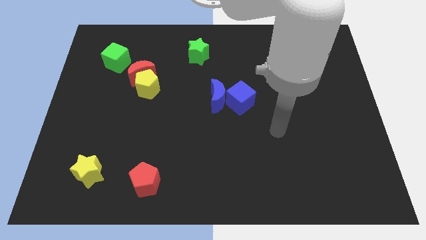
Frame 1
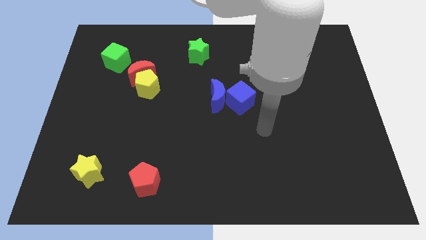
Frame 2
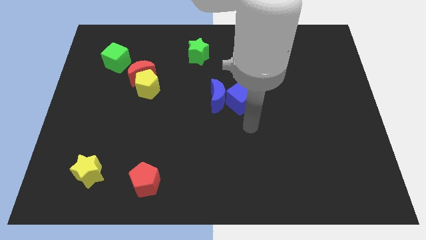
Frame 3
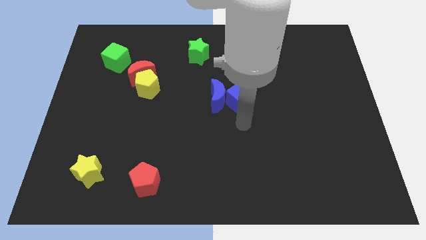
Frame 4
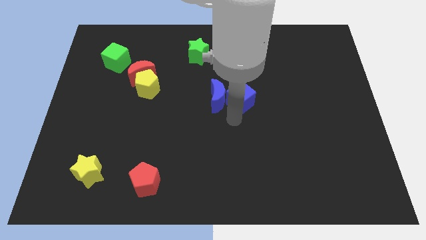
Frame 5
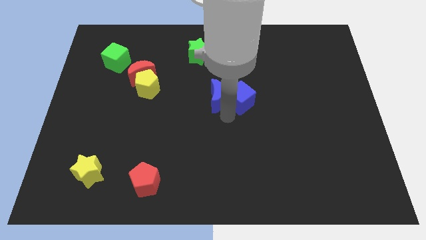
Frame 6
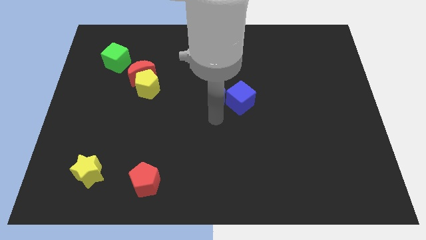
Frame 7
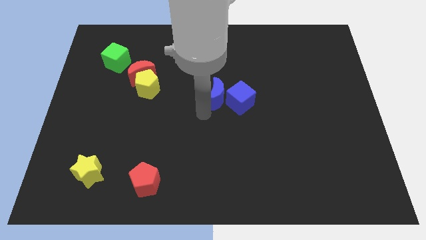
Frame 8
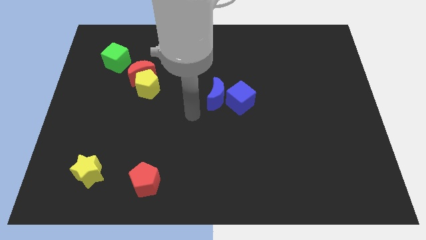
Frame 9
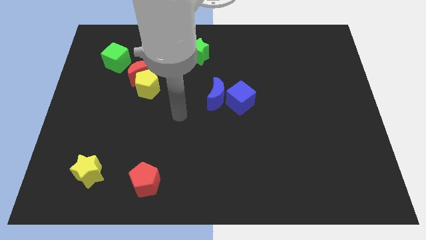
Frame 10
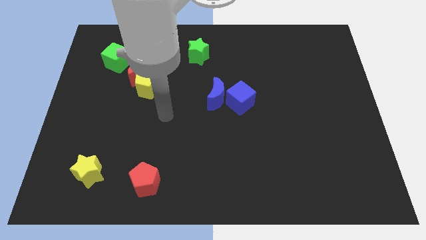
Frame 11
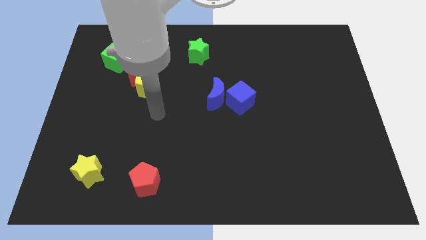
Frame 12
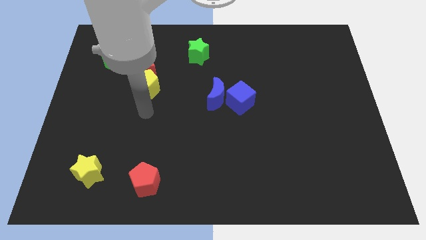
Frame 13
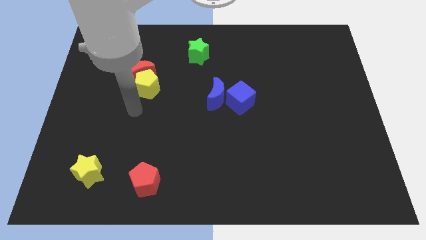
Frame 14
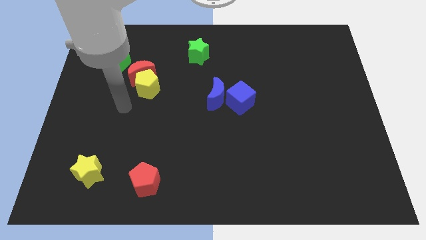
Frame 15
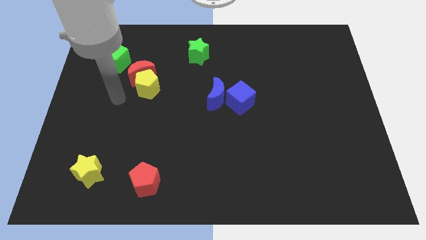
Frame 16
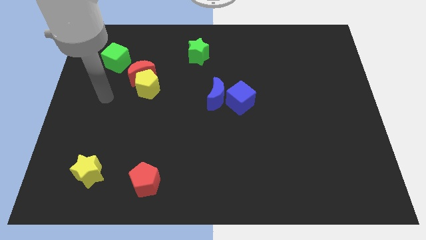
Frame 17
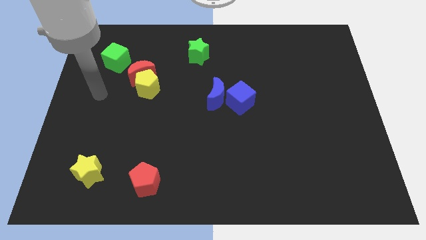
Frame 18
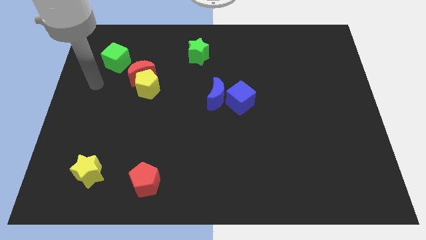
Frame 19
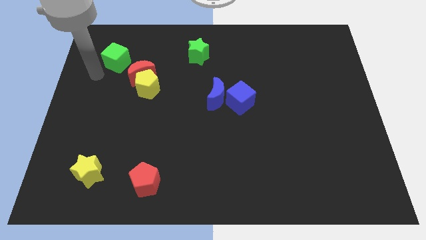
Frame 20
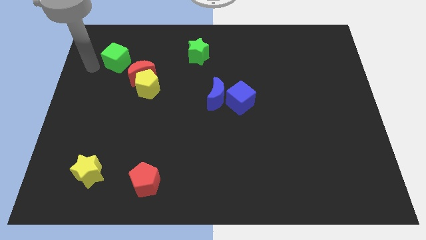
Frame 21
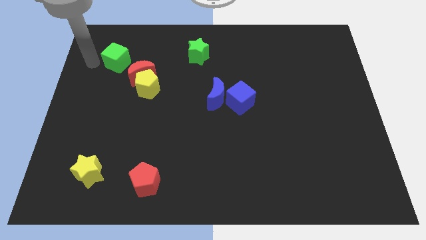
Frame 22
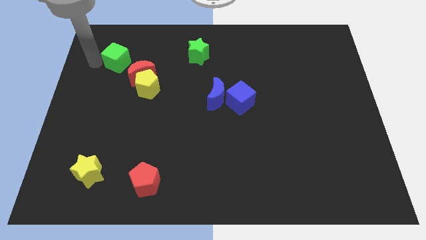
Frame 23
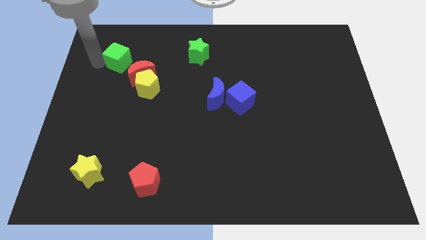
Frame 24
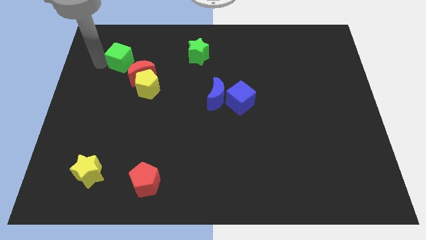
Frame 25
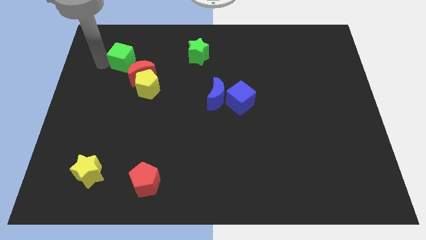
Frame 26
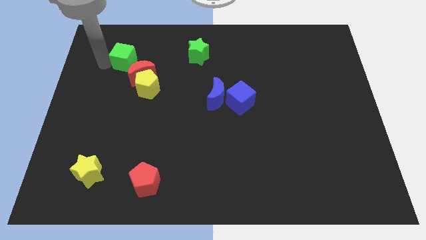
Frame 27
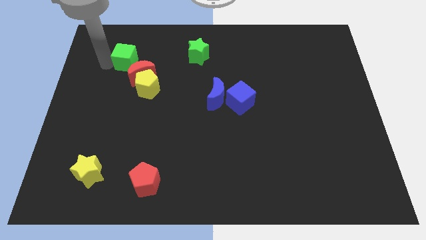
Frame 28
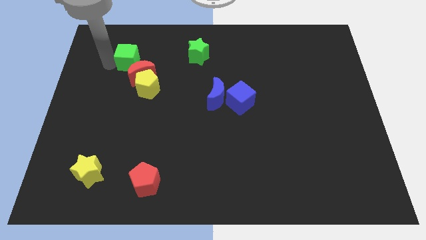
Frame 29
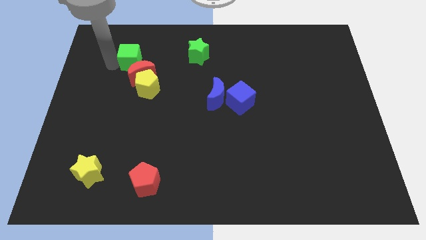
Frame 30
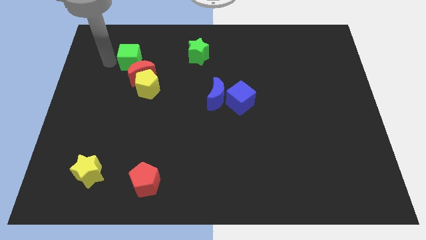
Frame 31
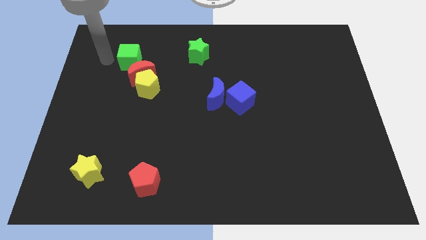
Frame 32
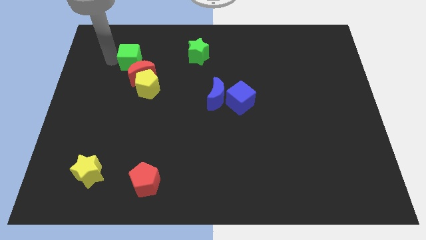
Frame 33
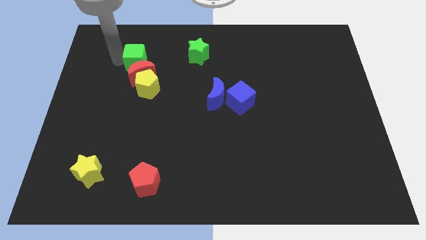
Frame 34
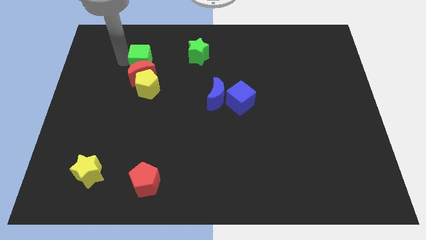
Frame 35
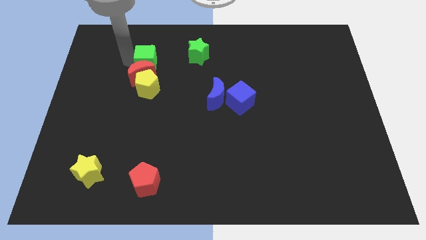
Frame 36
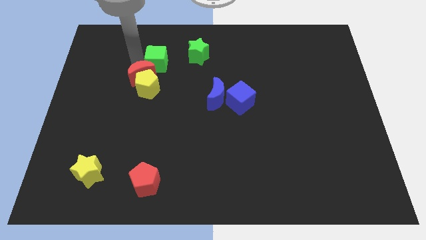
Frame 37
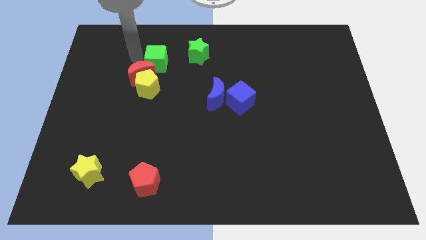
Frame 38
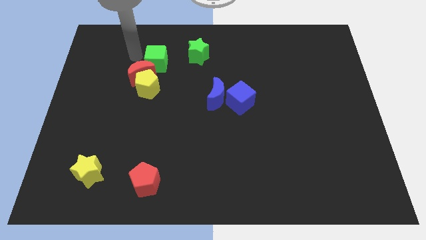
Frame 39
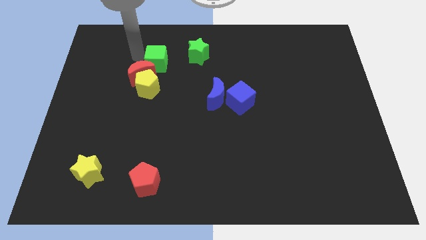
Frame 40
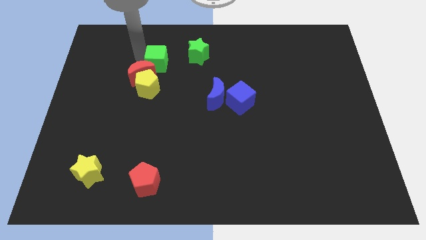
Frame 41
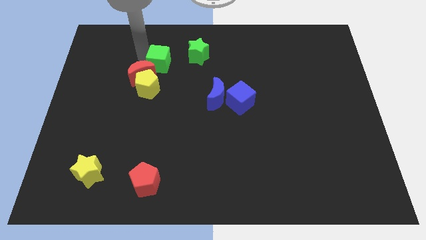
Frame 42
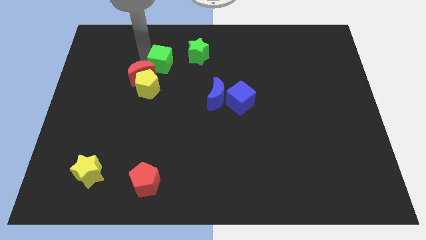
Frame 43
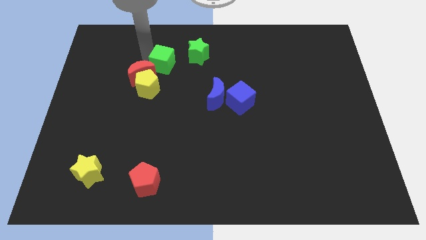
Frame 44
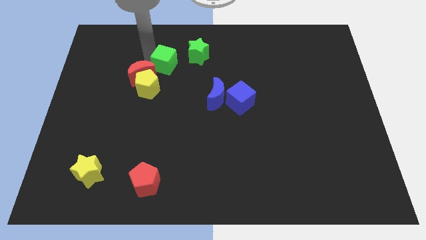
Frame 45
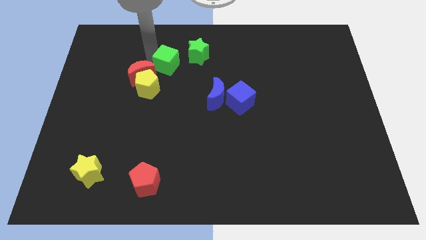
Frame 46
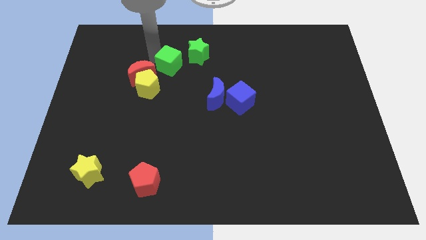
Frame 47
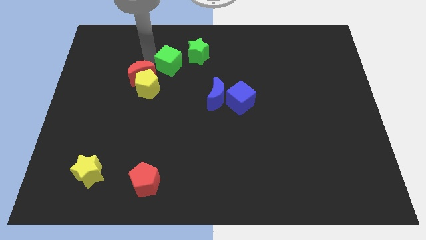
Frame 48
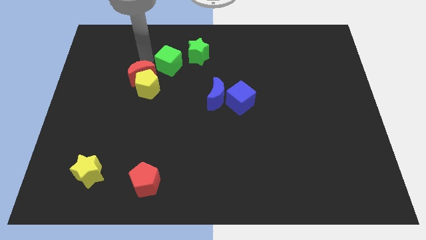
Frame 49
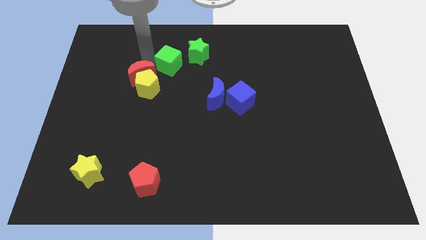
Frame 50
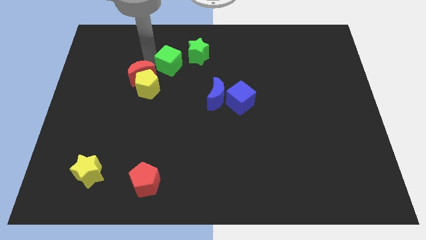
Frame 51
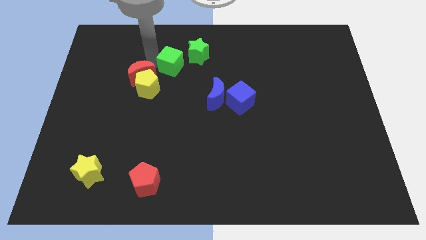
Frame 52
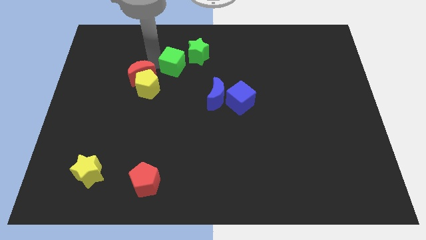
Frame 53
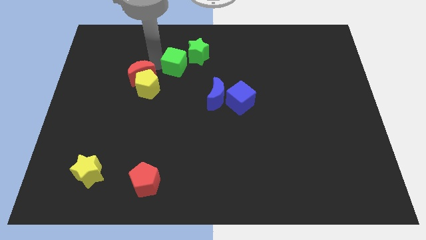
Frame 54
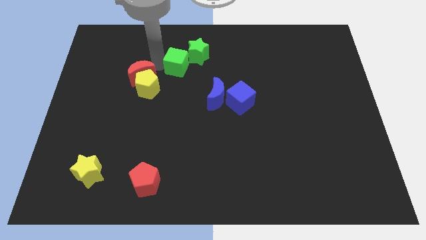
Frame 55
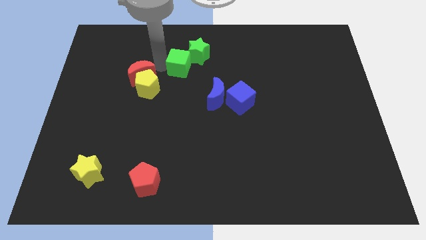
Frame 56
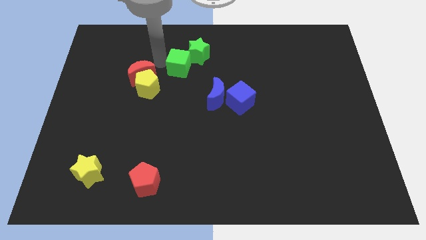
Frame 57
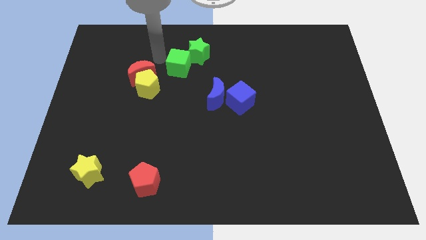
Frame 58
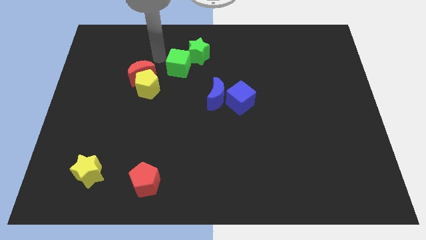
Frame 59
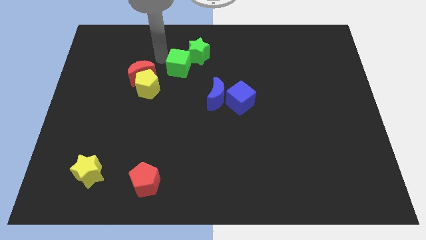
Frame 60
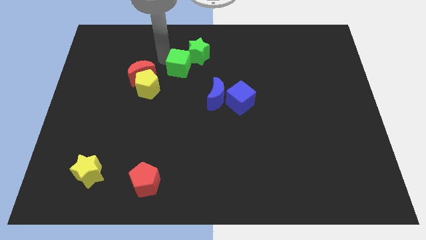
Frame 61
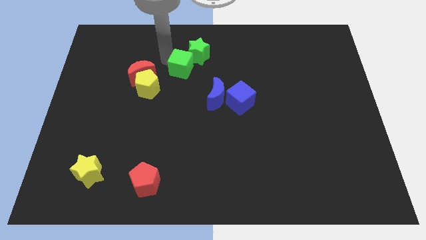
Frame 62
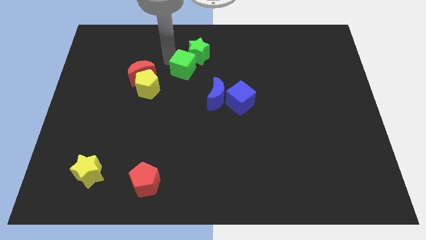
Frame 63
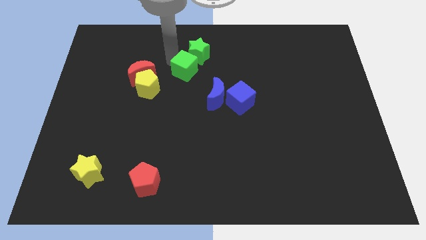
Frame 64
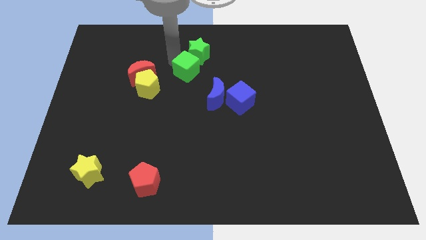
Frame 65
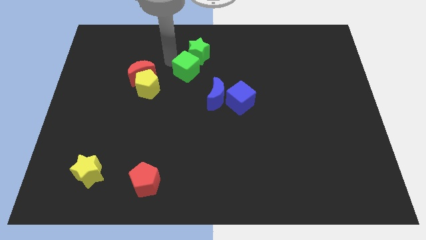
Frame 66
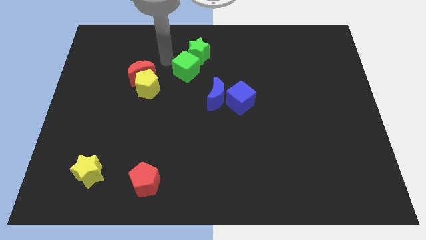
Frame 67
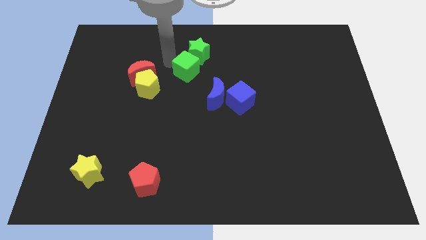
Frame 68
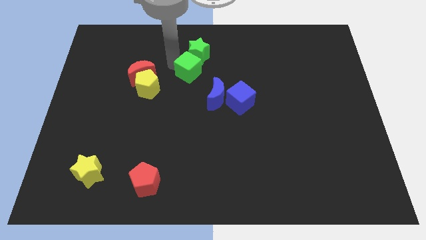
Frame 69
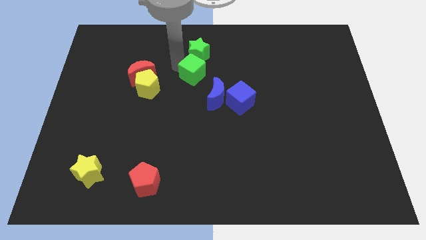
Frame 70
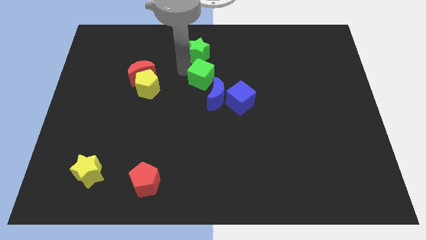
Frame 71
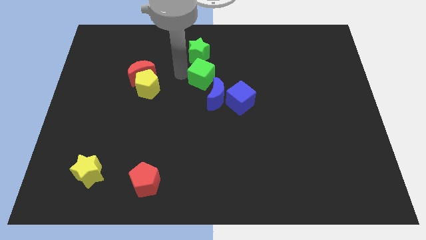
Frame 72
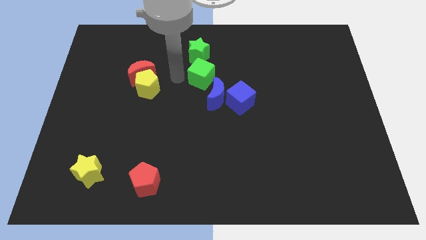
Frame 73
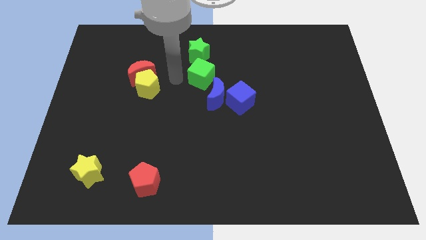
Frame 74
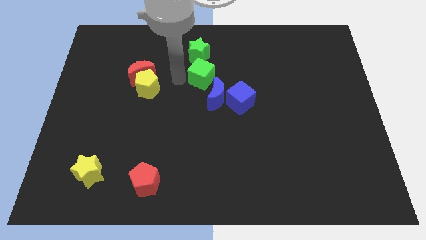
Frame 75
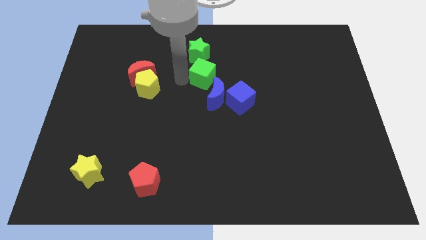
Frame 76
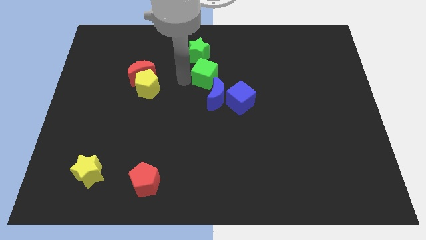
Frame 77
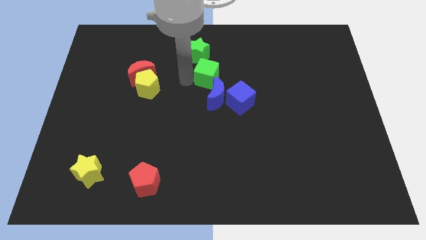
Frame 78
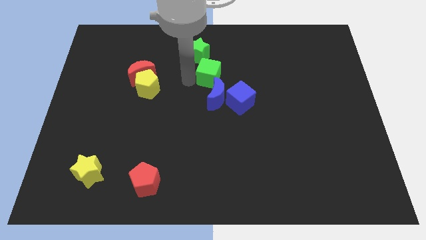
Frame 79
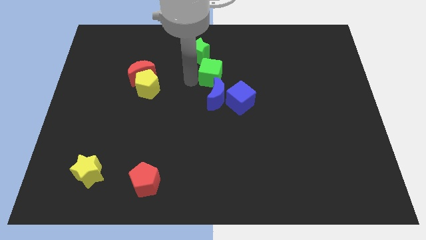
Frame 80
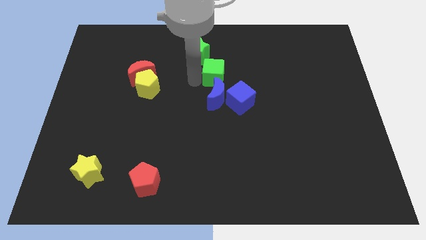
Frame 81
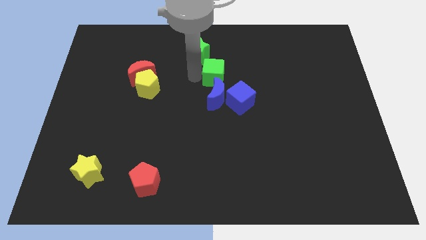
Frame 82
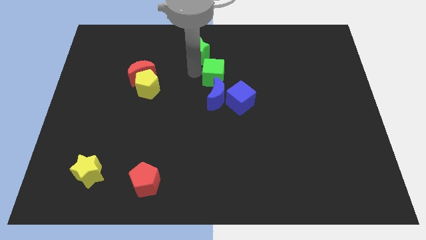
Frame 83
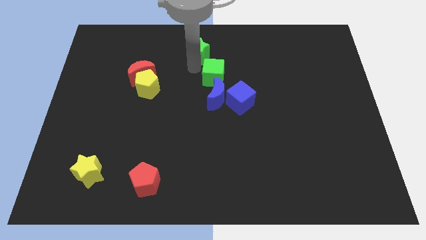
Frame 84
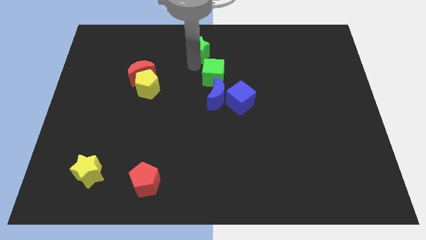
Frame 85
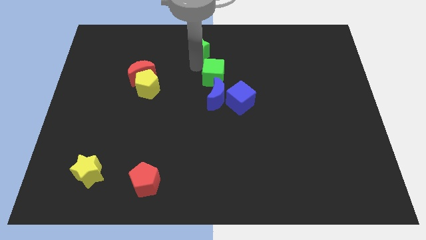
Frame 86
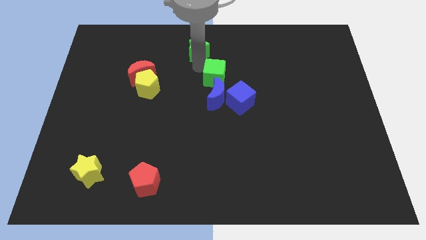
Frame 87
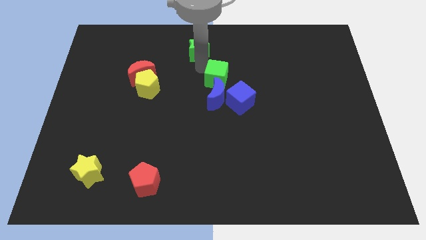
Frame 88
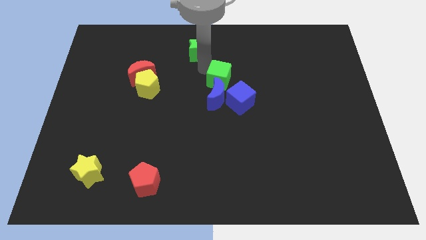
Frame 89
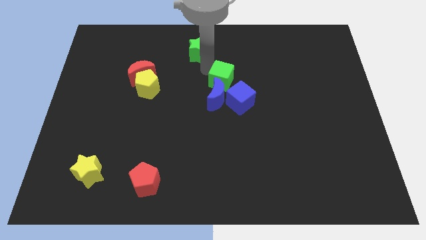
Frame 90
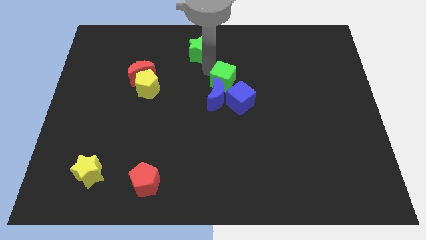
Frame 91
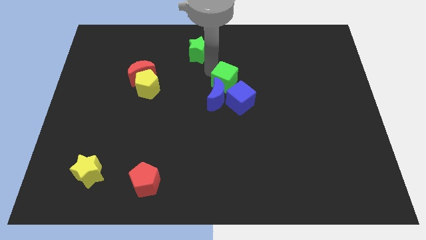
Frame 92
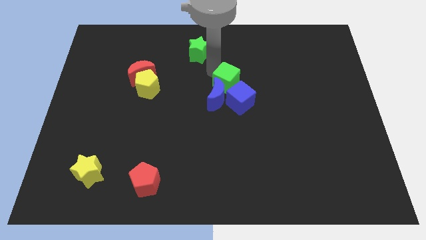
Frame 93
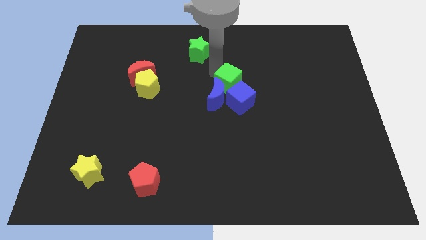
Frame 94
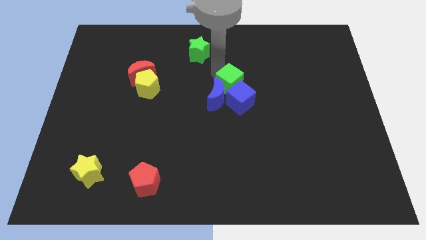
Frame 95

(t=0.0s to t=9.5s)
move the green cube close to the blue cube
